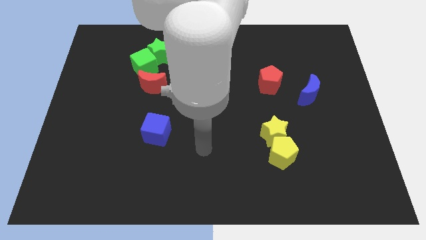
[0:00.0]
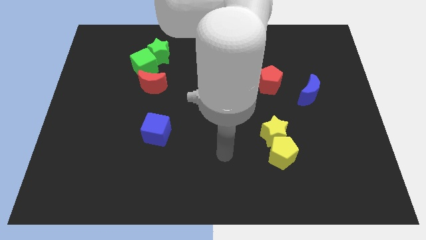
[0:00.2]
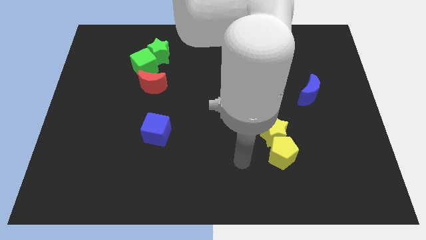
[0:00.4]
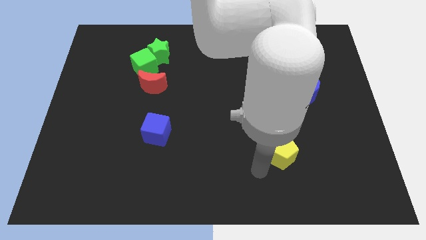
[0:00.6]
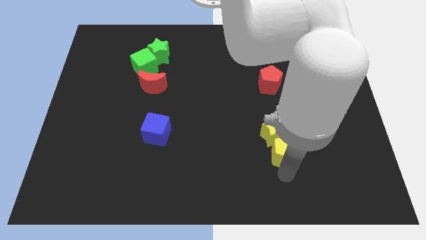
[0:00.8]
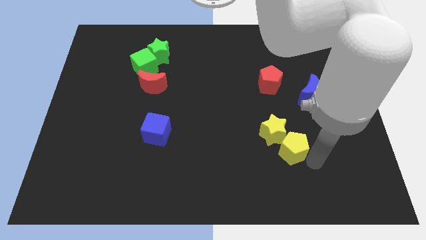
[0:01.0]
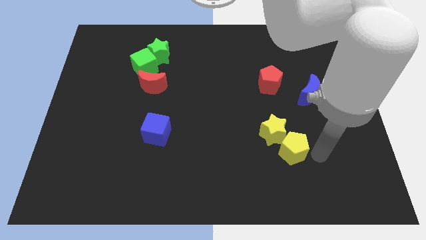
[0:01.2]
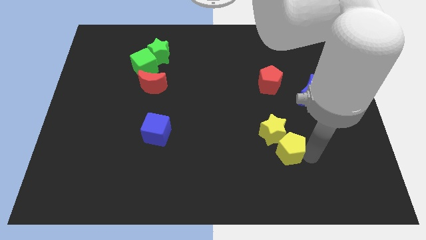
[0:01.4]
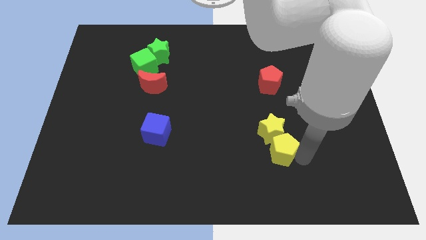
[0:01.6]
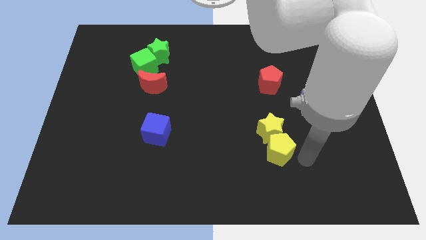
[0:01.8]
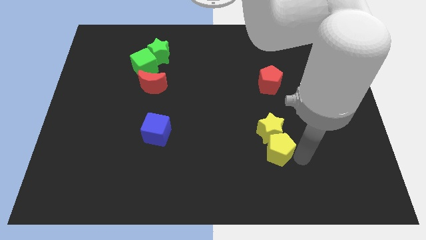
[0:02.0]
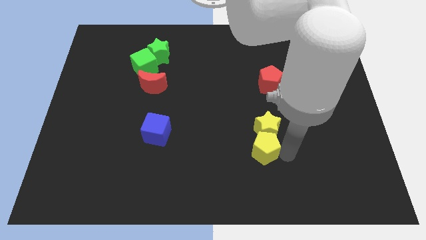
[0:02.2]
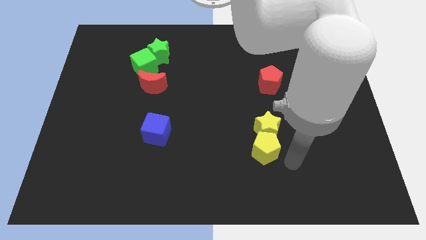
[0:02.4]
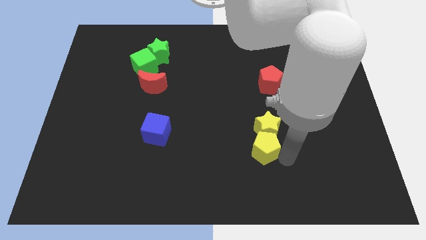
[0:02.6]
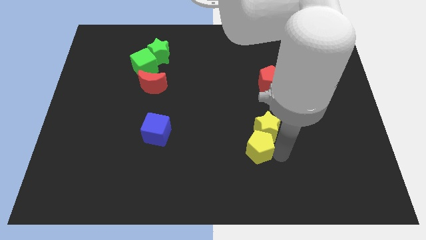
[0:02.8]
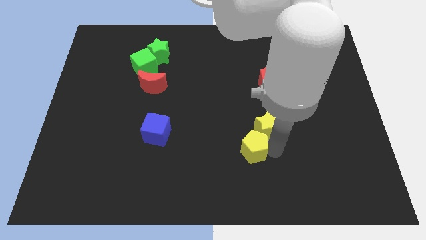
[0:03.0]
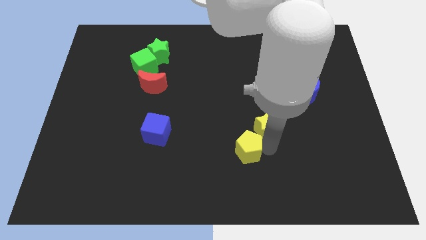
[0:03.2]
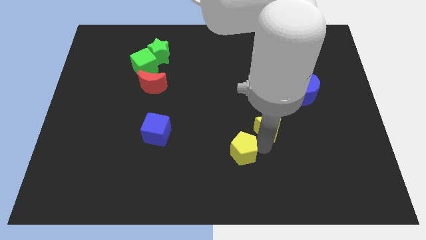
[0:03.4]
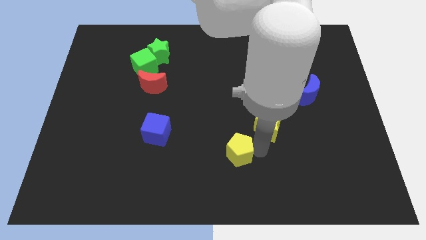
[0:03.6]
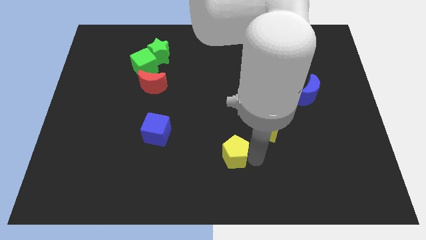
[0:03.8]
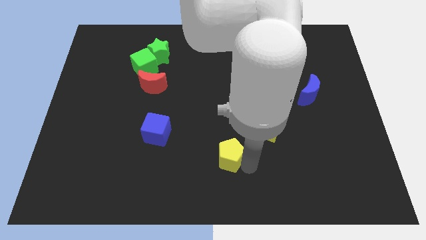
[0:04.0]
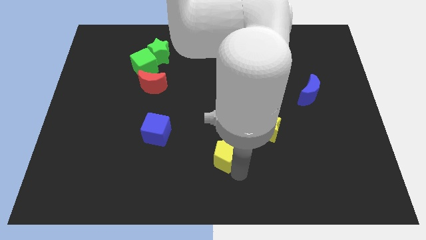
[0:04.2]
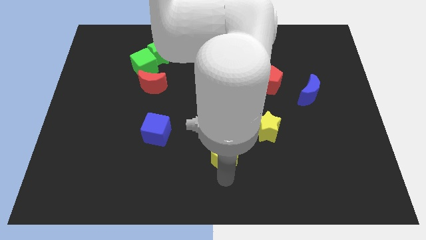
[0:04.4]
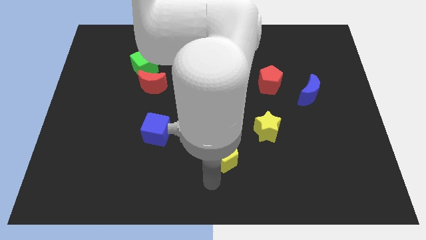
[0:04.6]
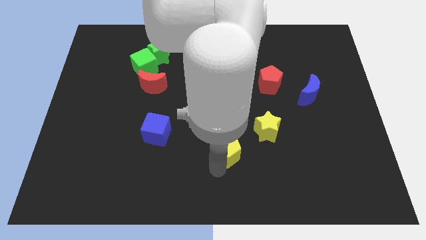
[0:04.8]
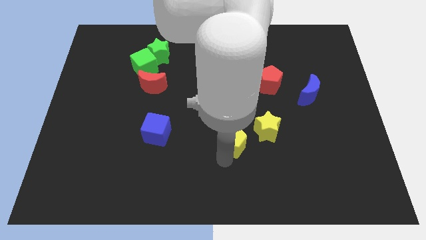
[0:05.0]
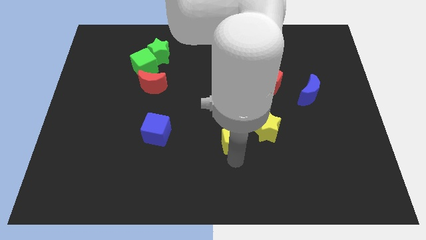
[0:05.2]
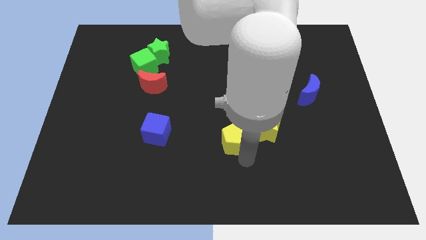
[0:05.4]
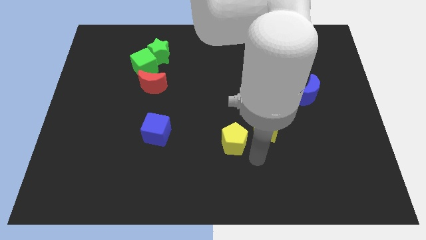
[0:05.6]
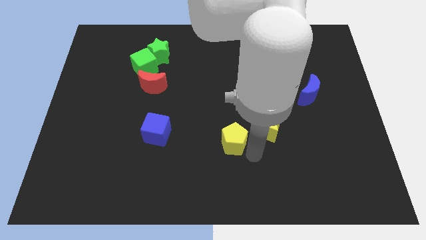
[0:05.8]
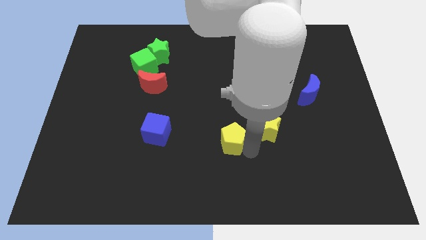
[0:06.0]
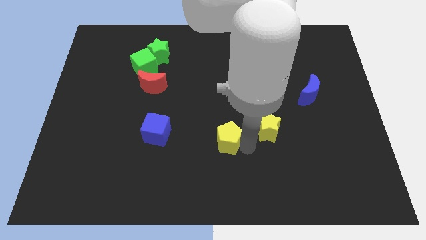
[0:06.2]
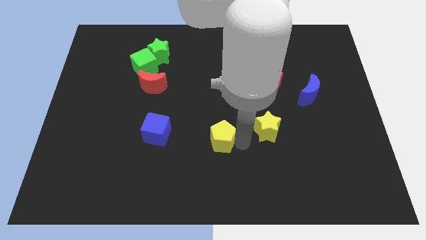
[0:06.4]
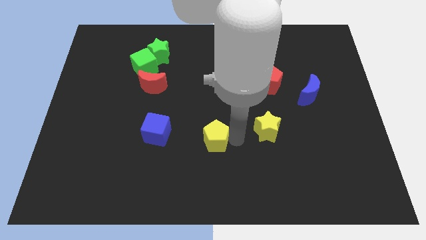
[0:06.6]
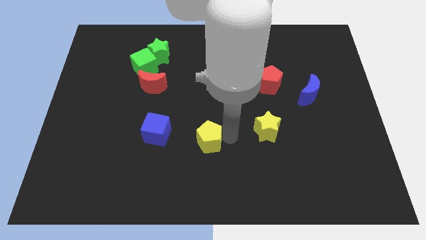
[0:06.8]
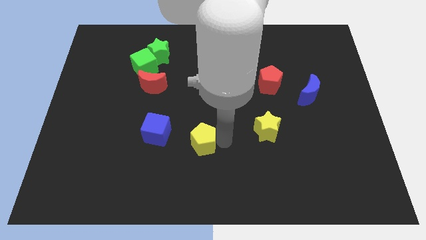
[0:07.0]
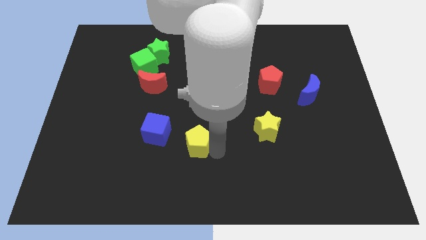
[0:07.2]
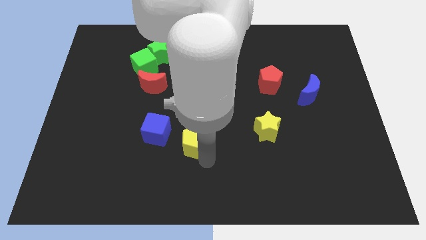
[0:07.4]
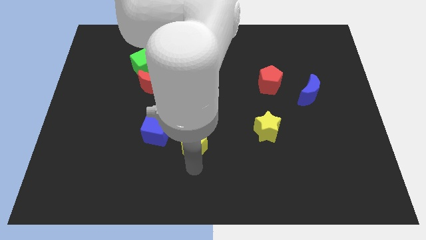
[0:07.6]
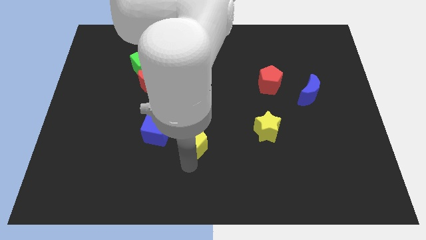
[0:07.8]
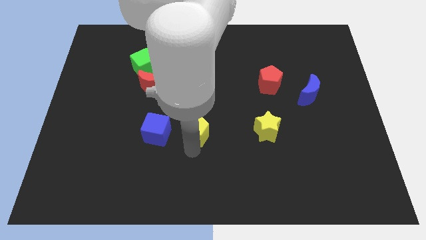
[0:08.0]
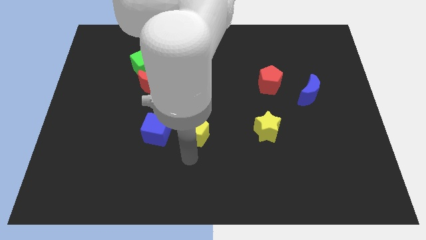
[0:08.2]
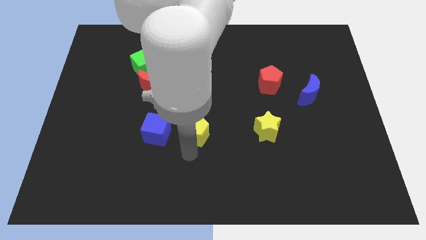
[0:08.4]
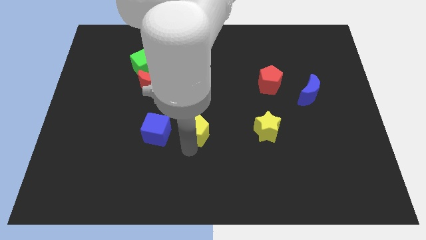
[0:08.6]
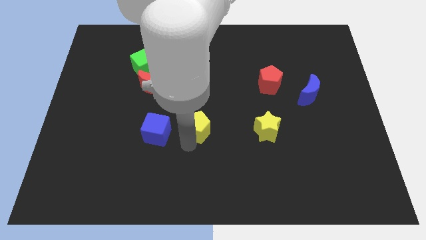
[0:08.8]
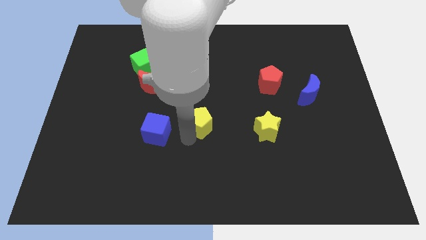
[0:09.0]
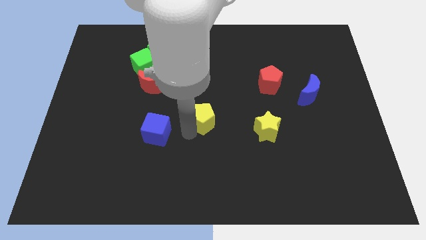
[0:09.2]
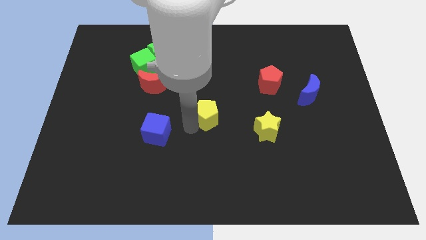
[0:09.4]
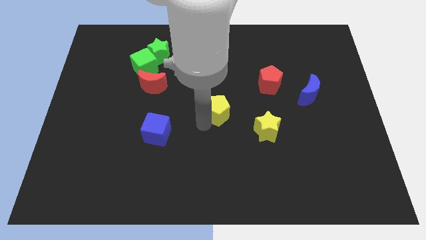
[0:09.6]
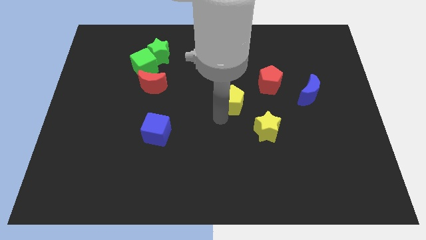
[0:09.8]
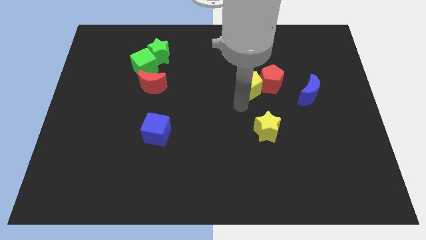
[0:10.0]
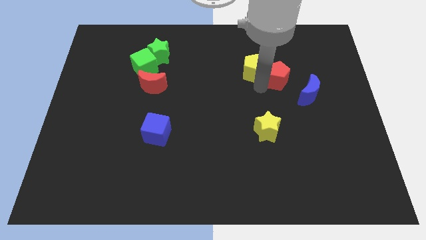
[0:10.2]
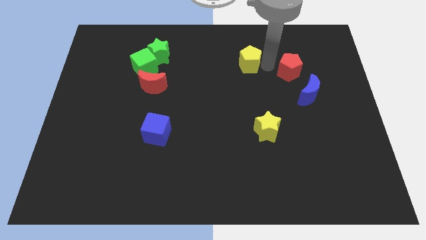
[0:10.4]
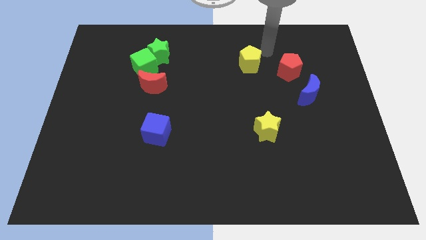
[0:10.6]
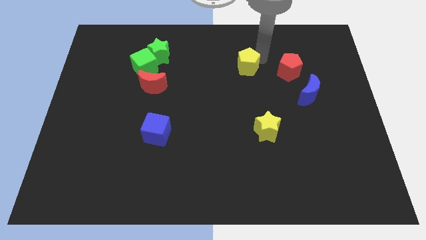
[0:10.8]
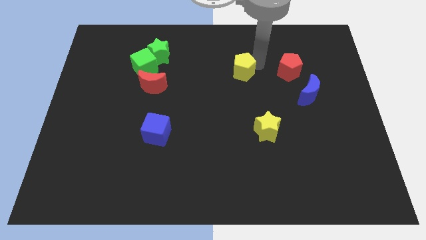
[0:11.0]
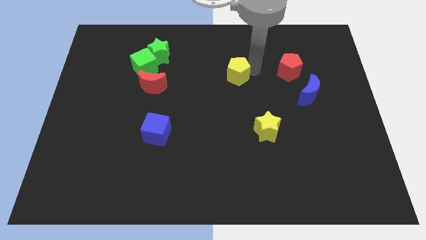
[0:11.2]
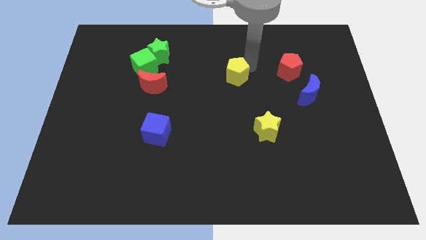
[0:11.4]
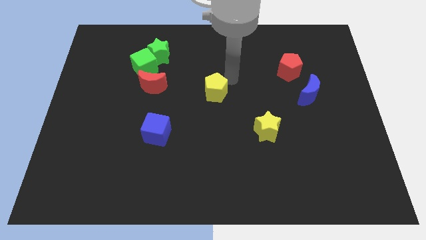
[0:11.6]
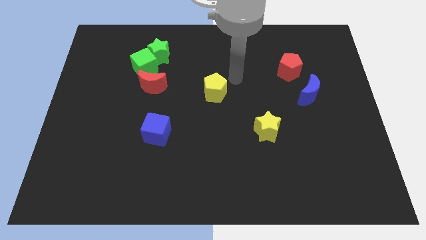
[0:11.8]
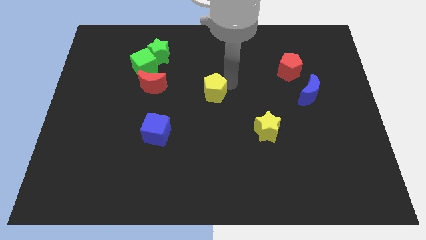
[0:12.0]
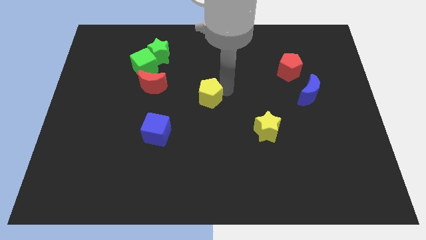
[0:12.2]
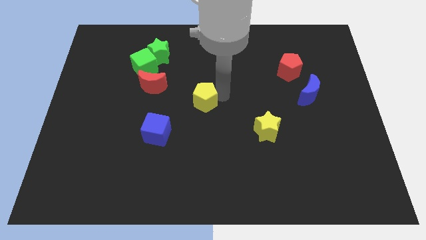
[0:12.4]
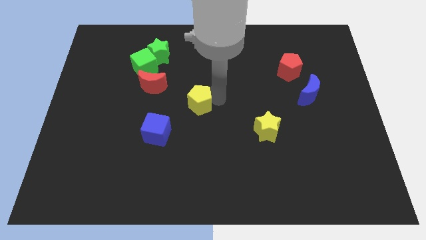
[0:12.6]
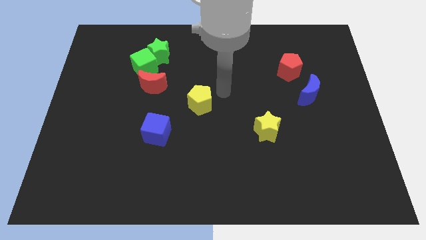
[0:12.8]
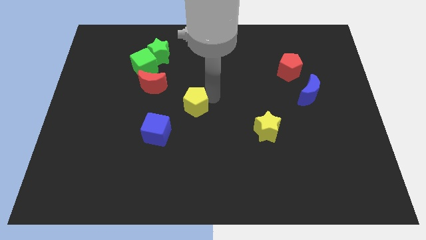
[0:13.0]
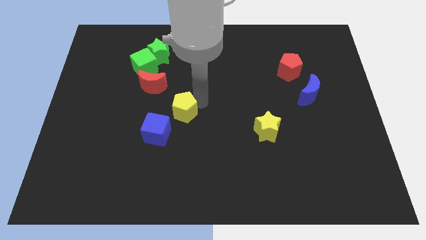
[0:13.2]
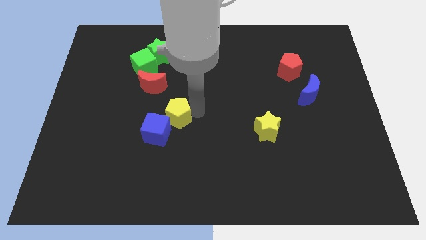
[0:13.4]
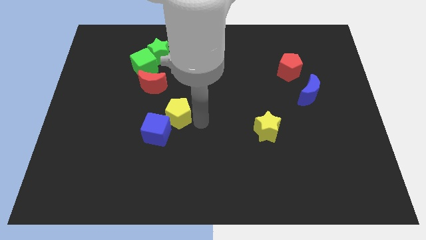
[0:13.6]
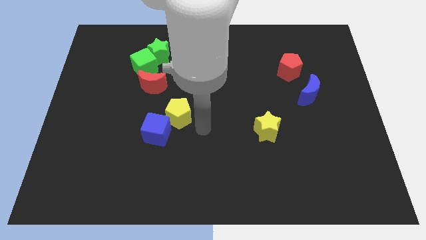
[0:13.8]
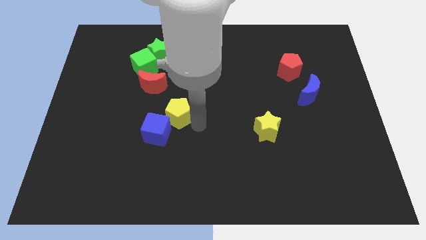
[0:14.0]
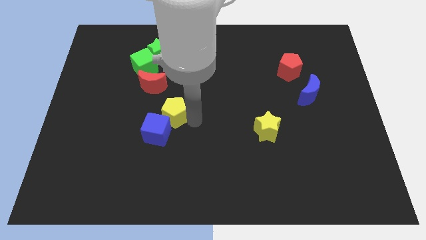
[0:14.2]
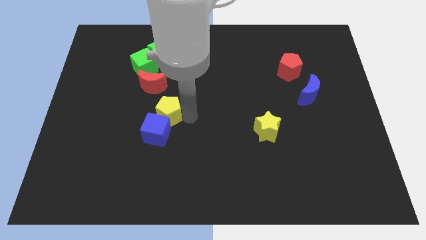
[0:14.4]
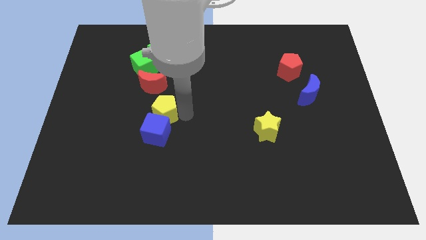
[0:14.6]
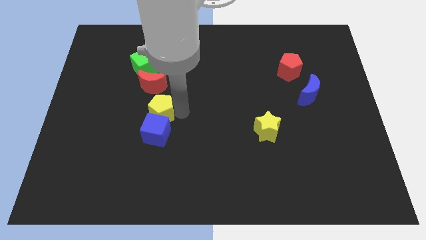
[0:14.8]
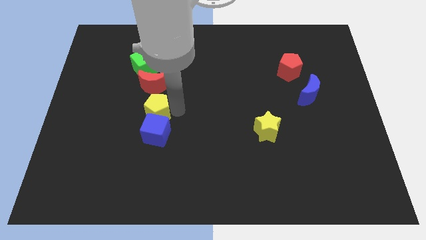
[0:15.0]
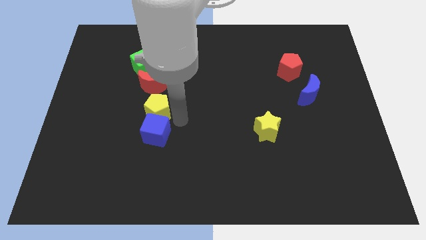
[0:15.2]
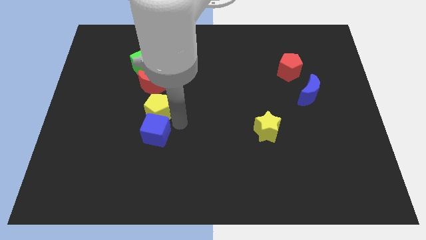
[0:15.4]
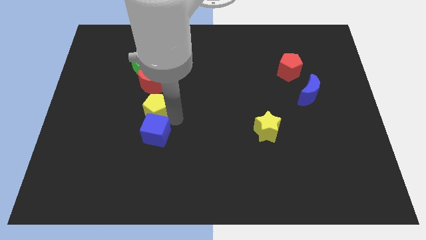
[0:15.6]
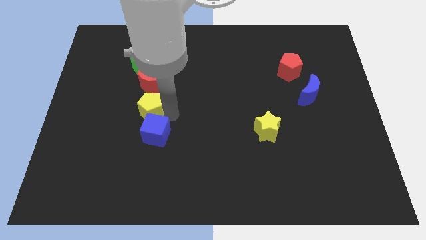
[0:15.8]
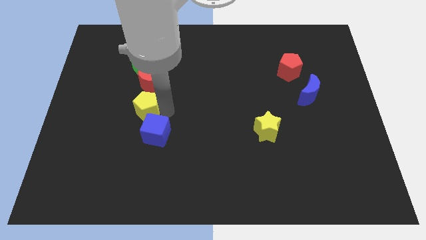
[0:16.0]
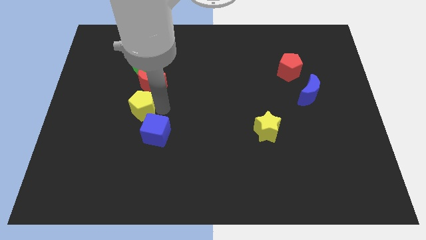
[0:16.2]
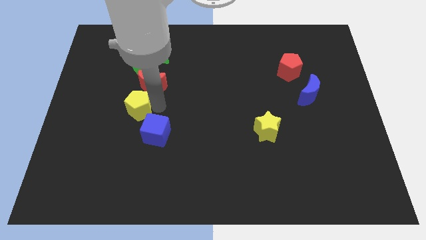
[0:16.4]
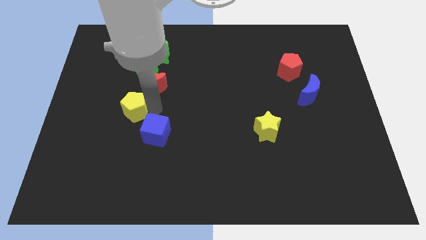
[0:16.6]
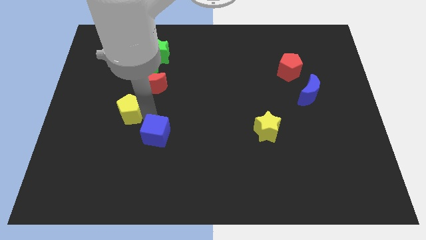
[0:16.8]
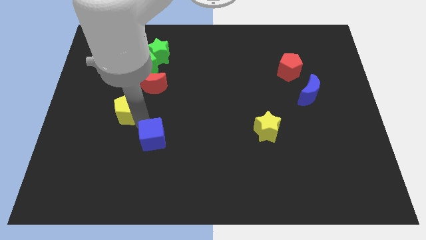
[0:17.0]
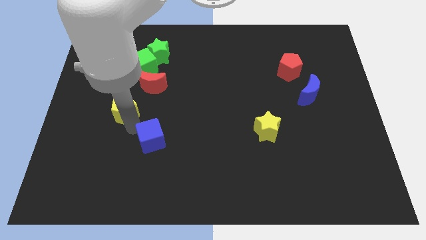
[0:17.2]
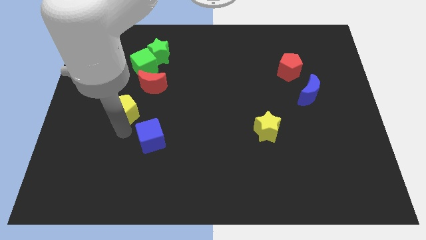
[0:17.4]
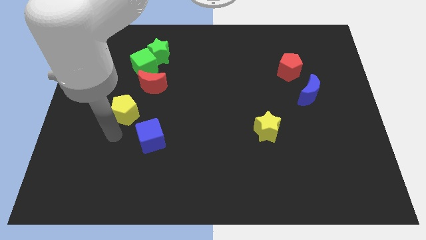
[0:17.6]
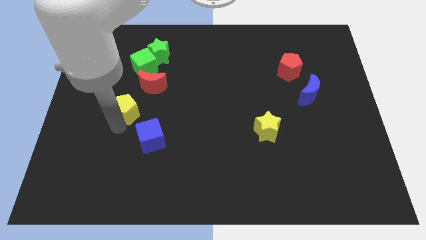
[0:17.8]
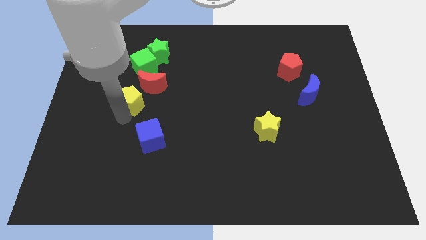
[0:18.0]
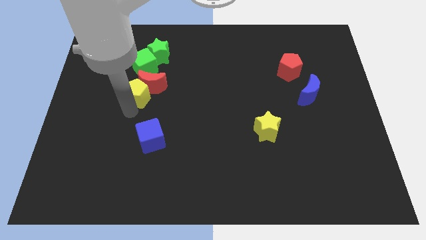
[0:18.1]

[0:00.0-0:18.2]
slide the yellow pentagon left of the red moon
